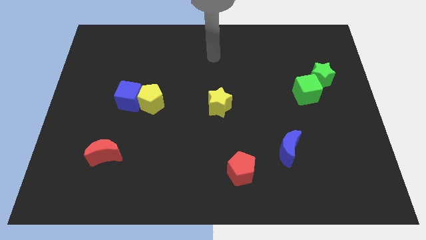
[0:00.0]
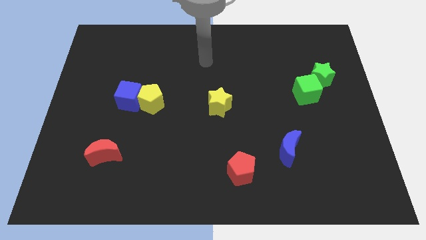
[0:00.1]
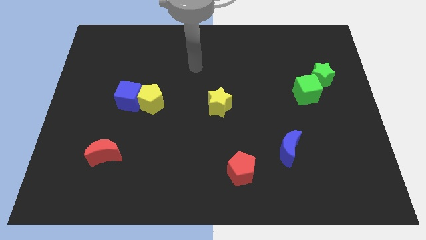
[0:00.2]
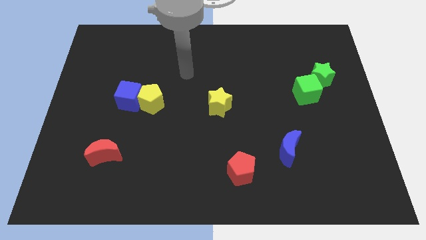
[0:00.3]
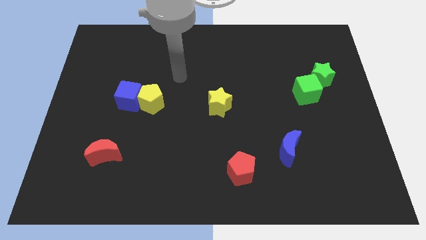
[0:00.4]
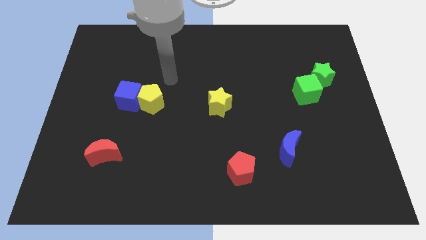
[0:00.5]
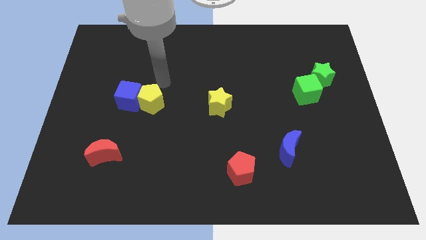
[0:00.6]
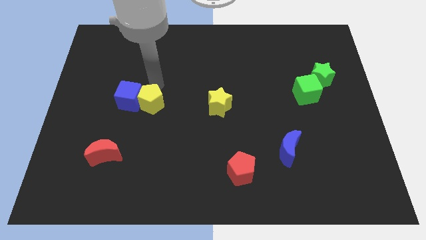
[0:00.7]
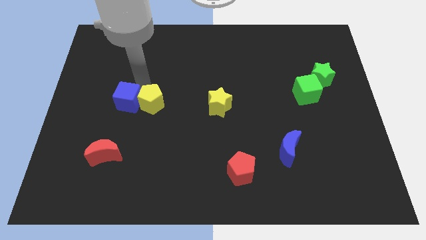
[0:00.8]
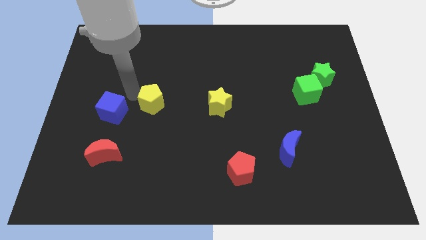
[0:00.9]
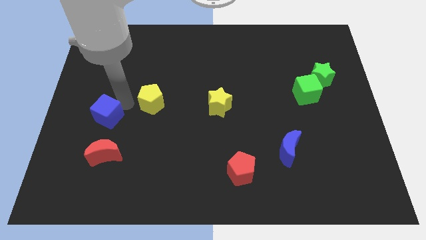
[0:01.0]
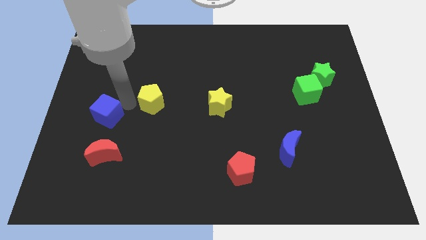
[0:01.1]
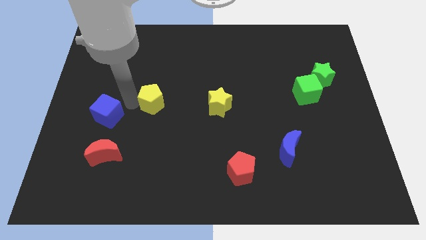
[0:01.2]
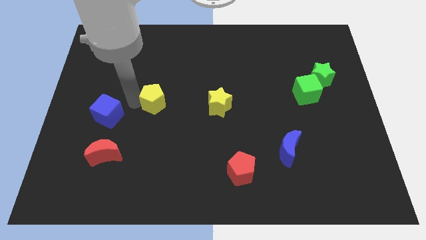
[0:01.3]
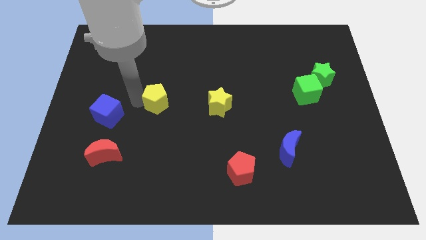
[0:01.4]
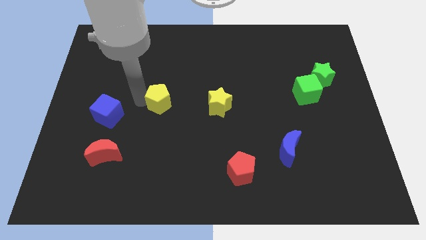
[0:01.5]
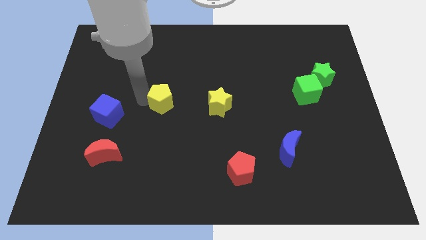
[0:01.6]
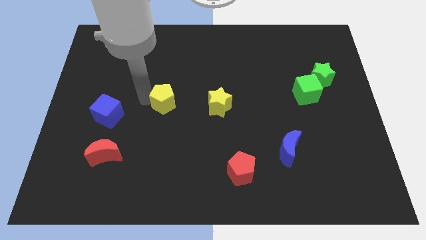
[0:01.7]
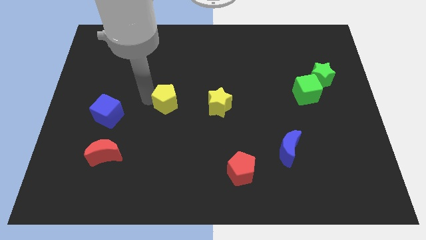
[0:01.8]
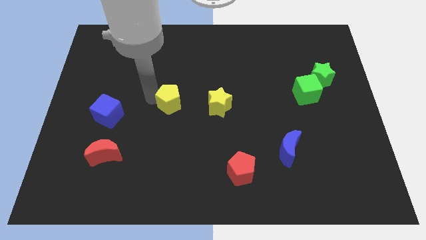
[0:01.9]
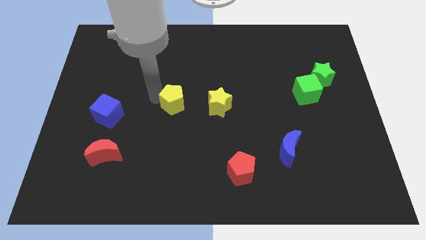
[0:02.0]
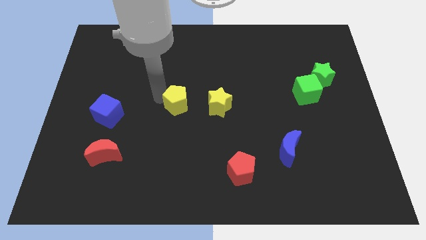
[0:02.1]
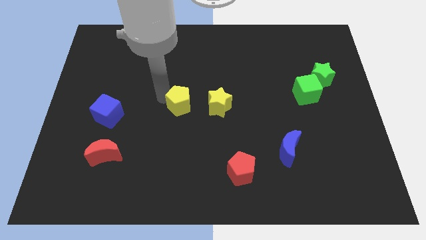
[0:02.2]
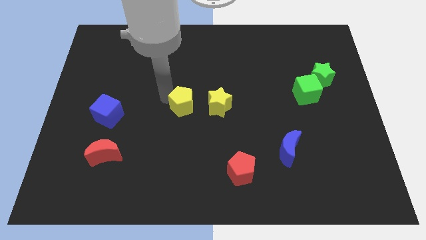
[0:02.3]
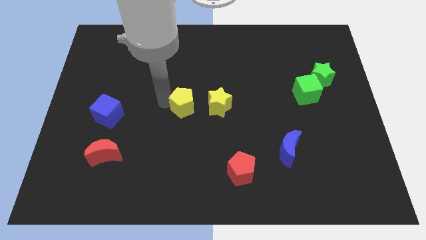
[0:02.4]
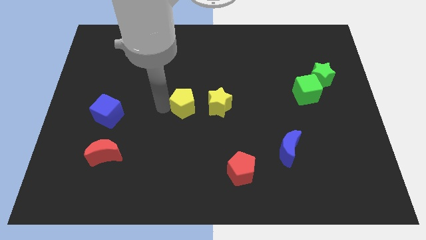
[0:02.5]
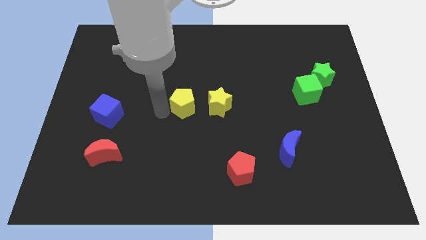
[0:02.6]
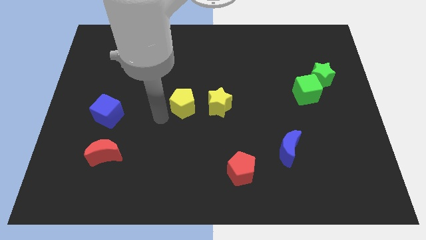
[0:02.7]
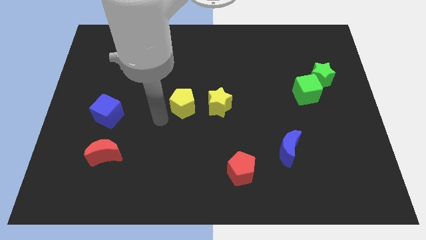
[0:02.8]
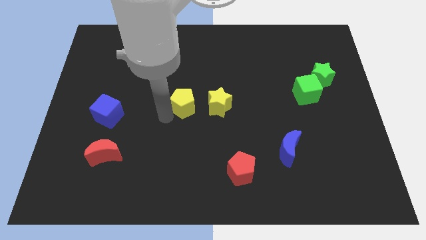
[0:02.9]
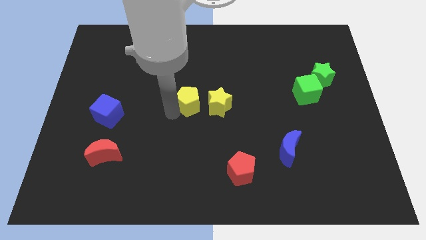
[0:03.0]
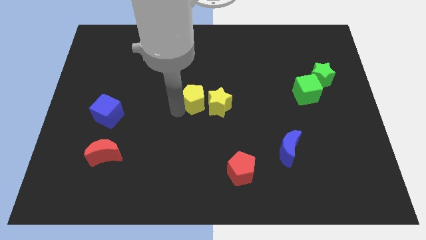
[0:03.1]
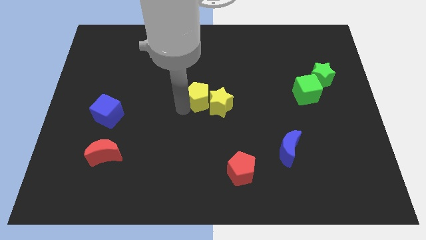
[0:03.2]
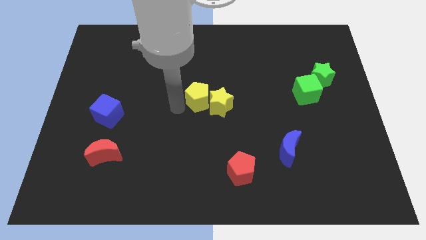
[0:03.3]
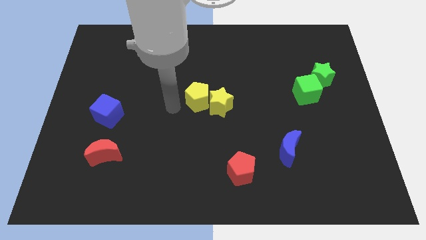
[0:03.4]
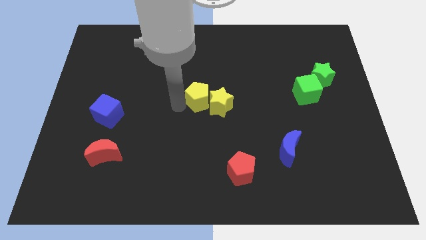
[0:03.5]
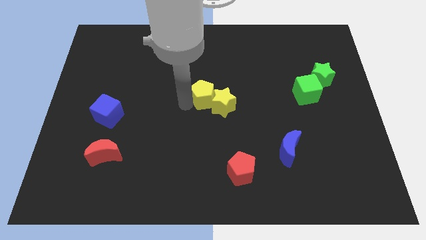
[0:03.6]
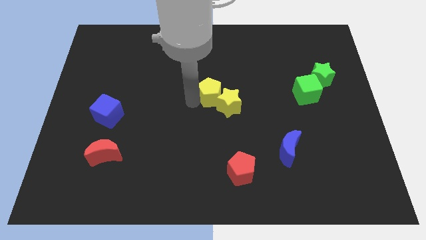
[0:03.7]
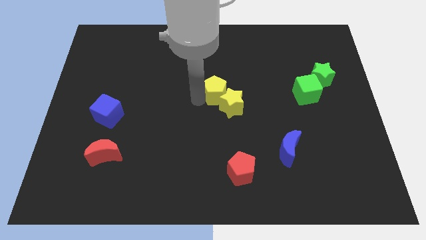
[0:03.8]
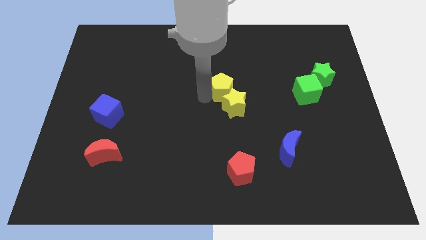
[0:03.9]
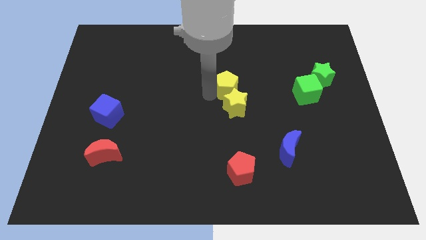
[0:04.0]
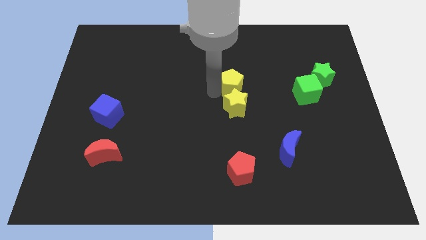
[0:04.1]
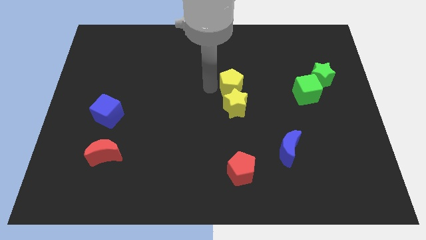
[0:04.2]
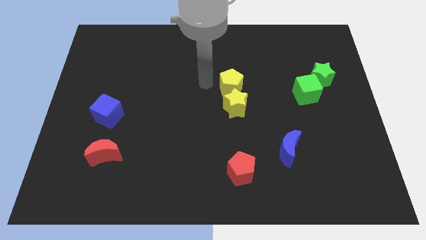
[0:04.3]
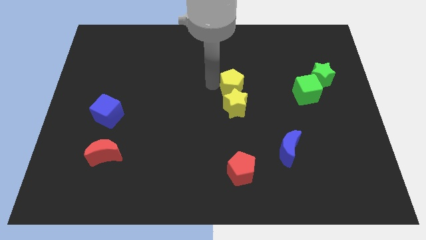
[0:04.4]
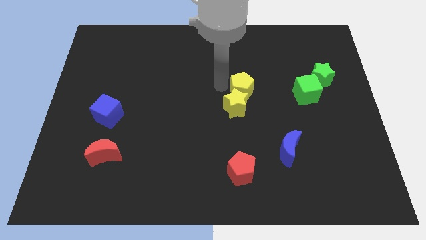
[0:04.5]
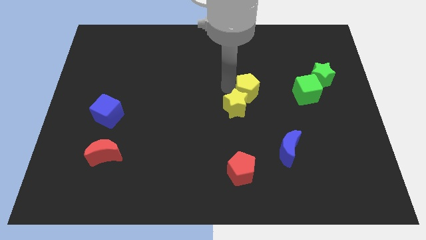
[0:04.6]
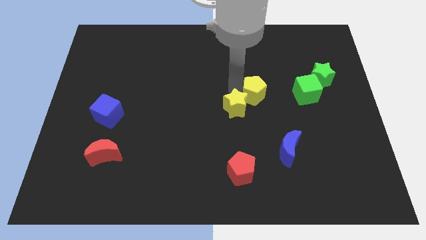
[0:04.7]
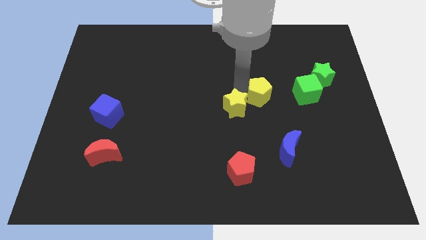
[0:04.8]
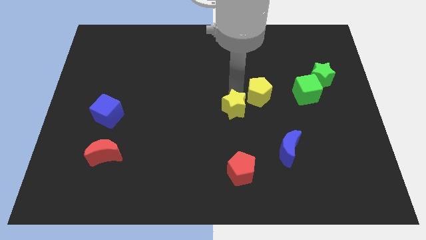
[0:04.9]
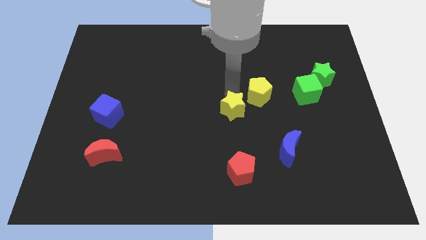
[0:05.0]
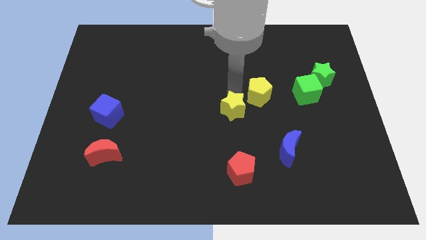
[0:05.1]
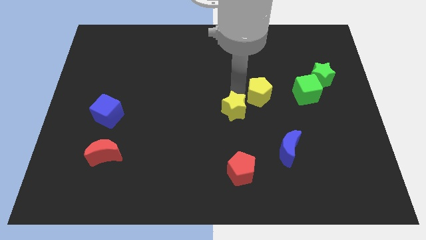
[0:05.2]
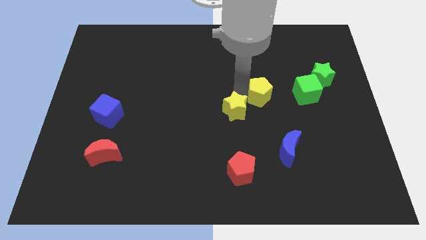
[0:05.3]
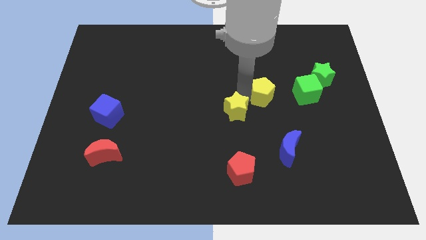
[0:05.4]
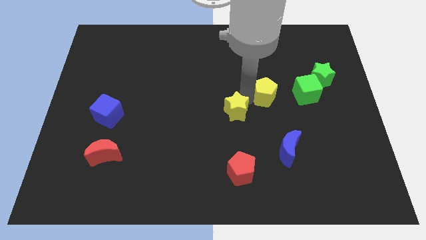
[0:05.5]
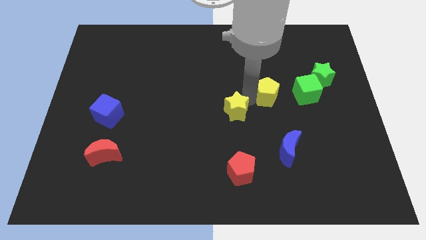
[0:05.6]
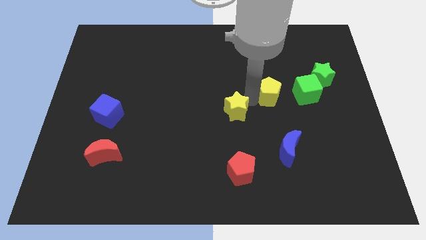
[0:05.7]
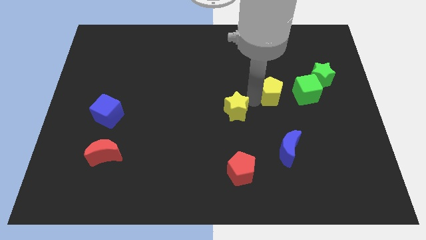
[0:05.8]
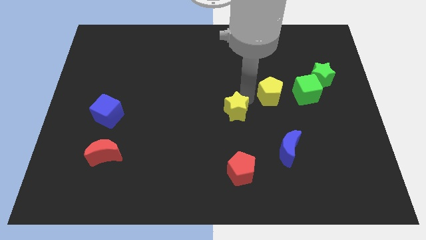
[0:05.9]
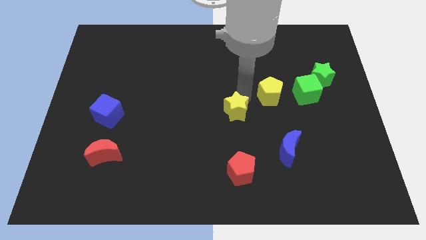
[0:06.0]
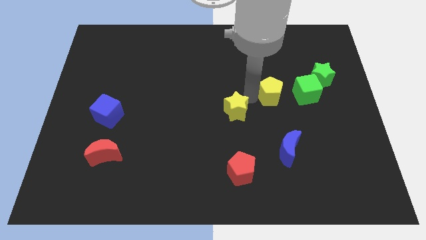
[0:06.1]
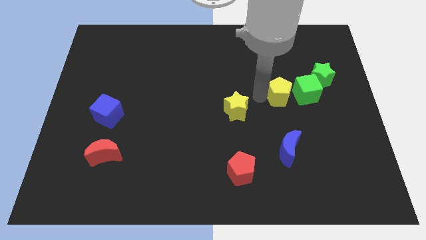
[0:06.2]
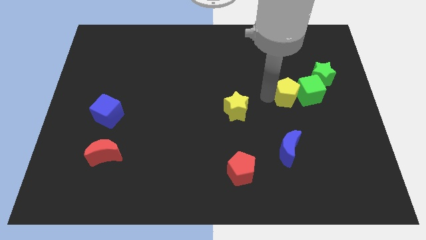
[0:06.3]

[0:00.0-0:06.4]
put the yellow pentagon close to the green cube

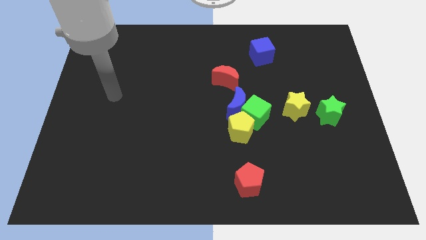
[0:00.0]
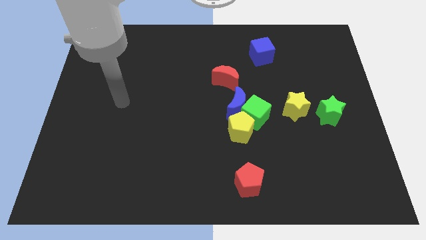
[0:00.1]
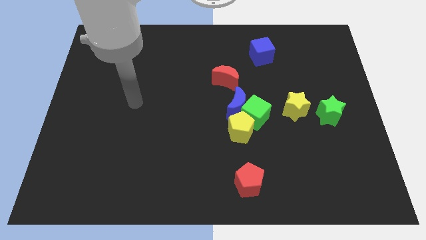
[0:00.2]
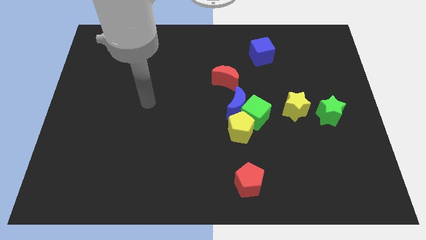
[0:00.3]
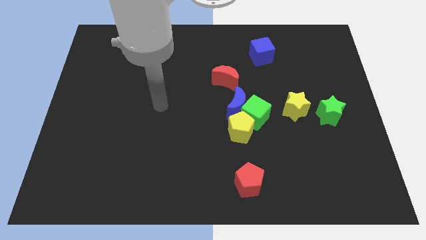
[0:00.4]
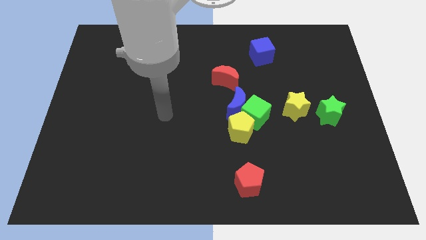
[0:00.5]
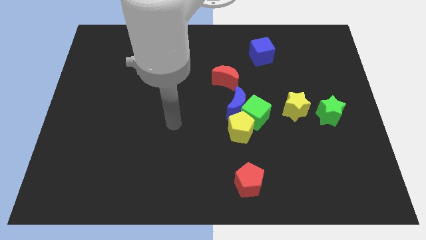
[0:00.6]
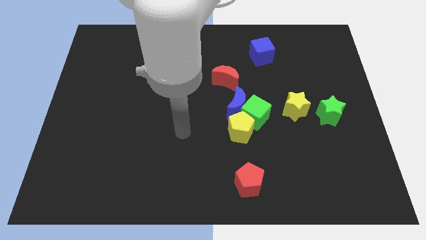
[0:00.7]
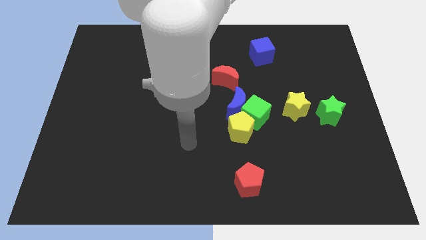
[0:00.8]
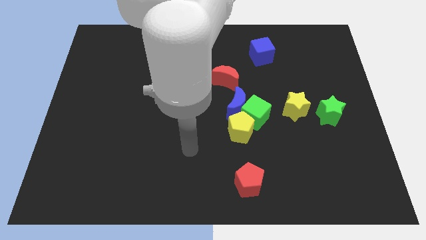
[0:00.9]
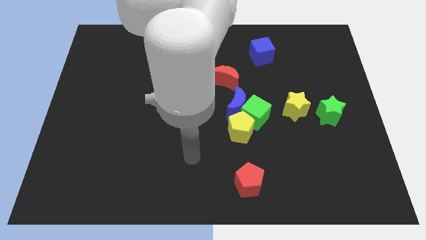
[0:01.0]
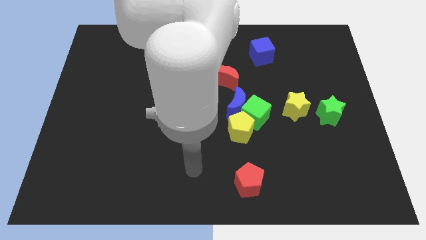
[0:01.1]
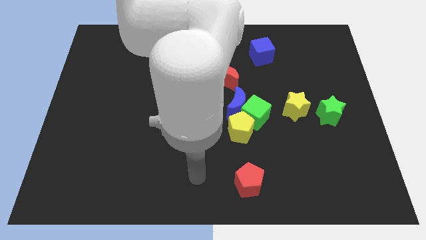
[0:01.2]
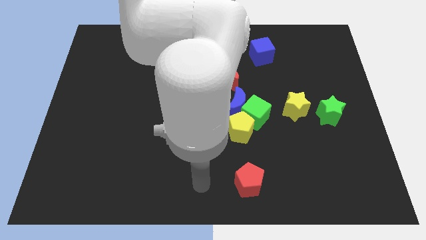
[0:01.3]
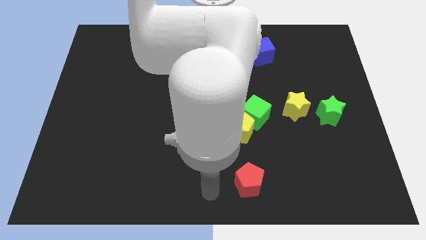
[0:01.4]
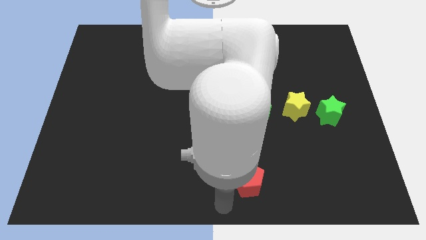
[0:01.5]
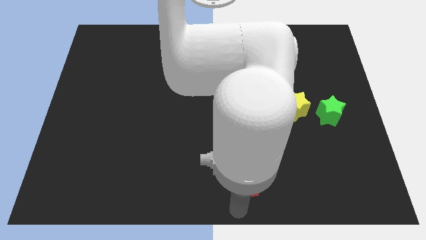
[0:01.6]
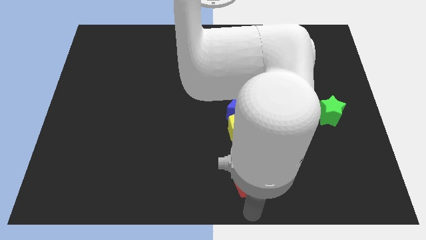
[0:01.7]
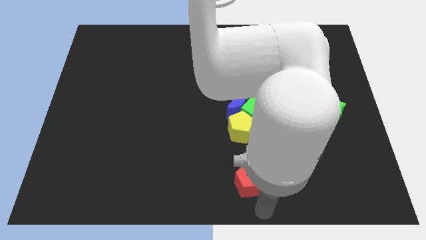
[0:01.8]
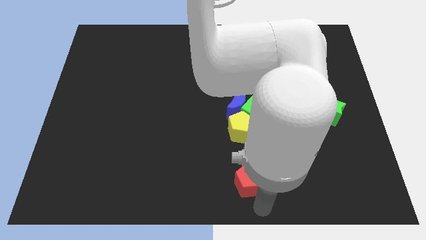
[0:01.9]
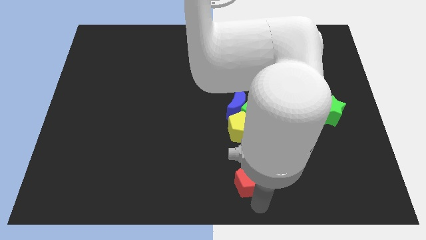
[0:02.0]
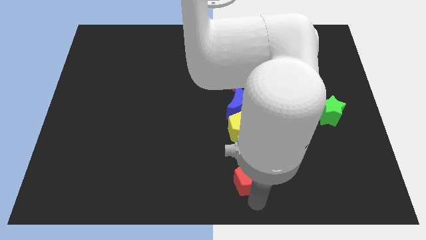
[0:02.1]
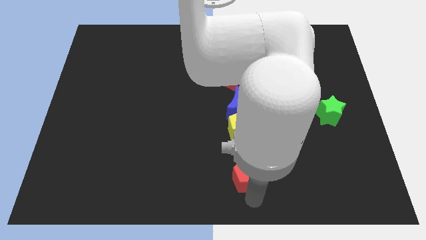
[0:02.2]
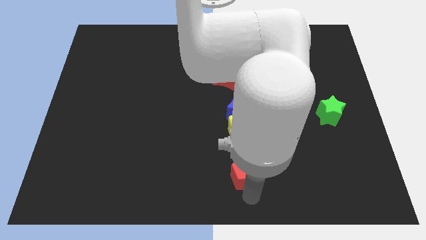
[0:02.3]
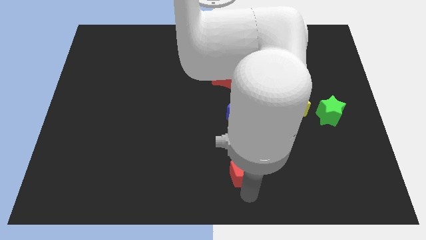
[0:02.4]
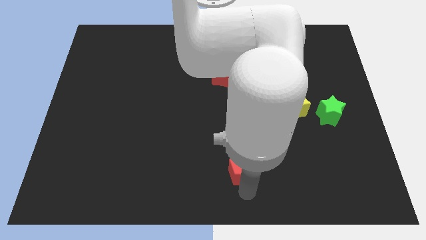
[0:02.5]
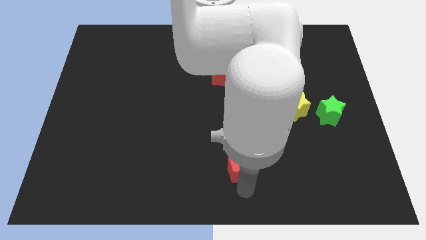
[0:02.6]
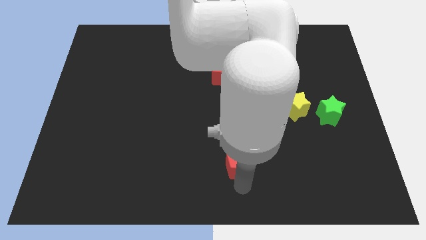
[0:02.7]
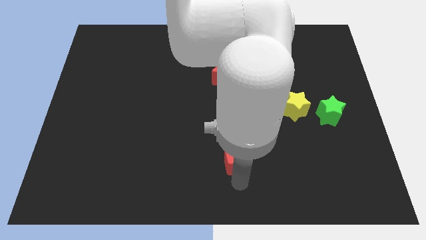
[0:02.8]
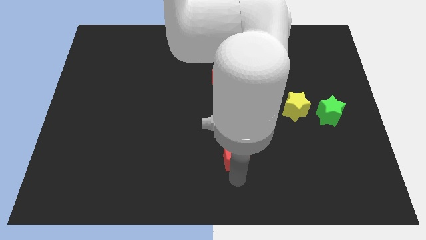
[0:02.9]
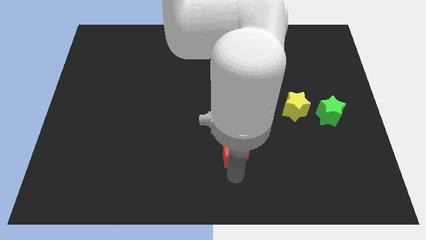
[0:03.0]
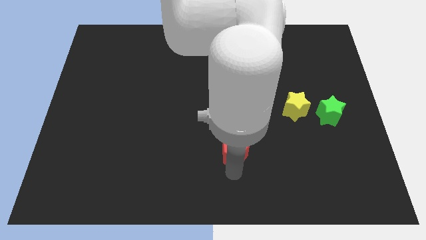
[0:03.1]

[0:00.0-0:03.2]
push the red pentagon close to the yellow pentagon
